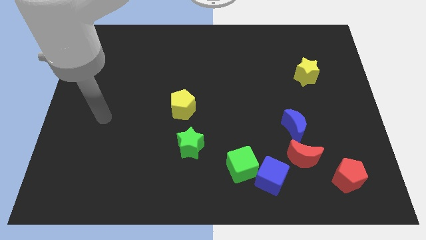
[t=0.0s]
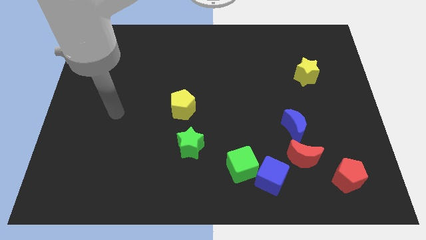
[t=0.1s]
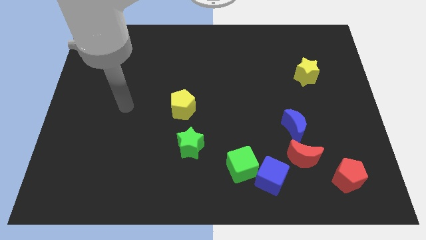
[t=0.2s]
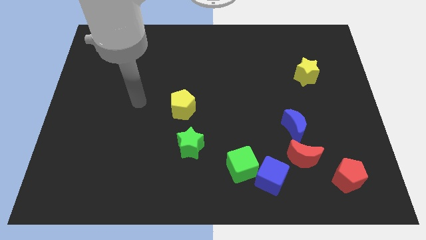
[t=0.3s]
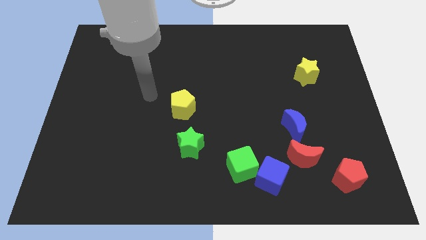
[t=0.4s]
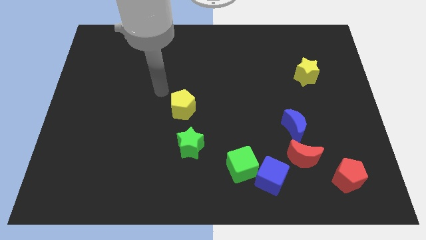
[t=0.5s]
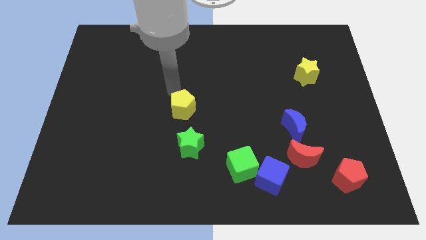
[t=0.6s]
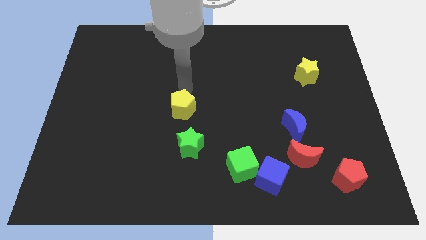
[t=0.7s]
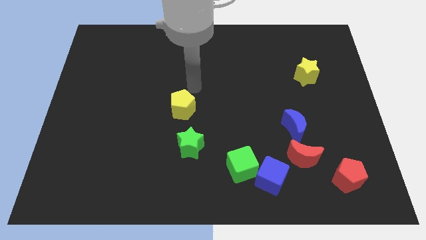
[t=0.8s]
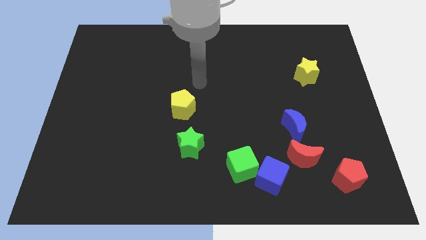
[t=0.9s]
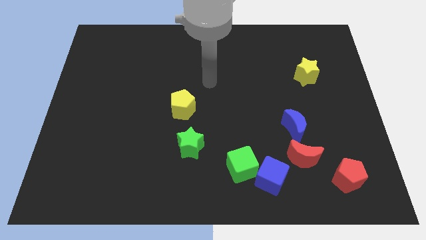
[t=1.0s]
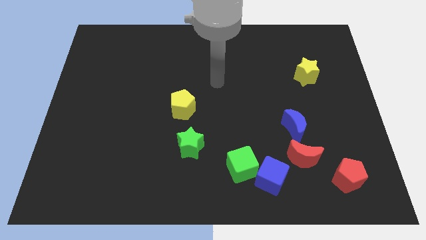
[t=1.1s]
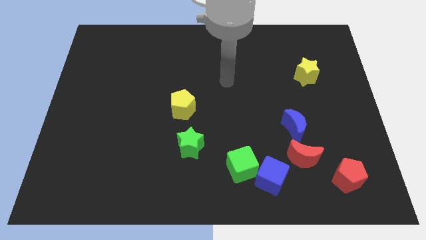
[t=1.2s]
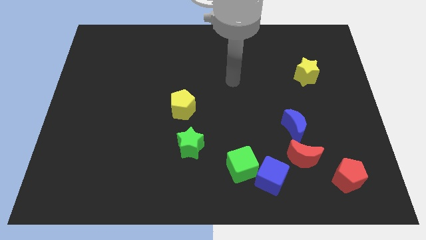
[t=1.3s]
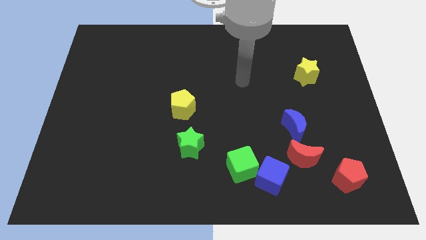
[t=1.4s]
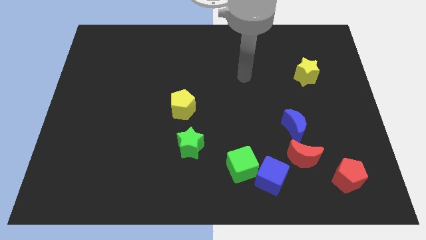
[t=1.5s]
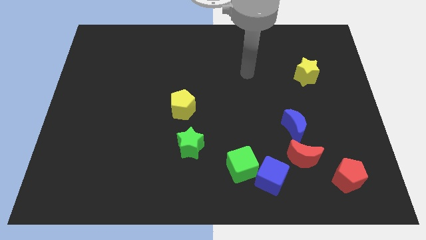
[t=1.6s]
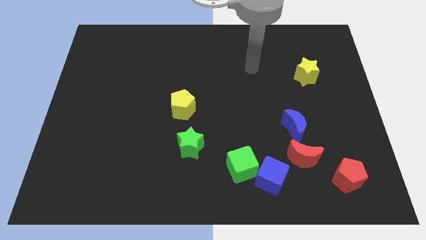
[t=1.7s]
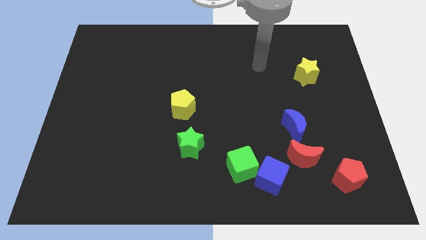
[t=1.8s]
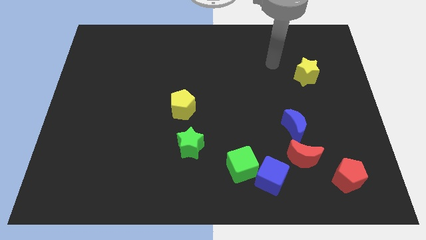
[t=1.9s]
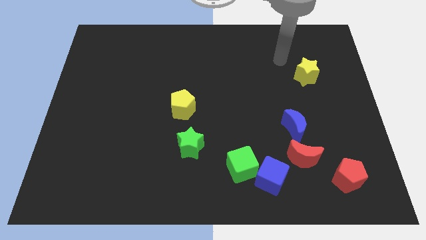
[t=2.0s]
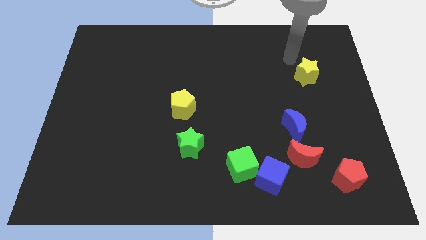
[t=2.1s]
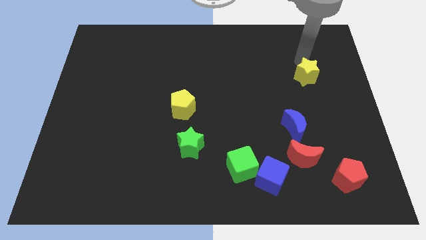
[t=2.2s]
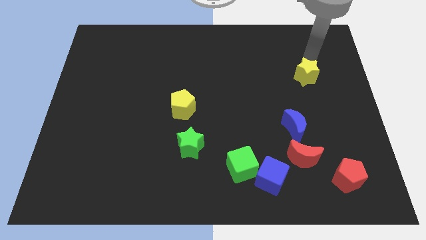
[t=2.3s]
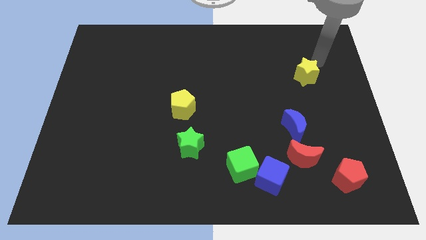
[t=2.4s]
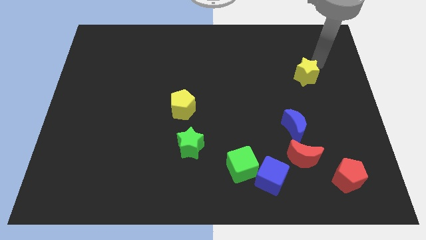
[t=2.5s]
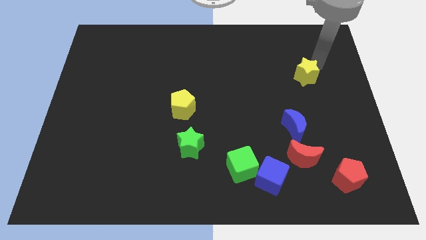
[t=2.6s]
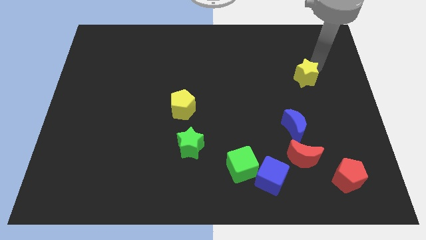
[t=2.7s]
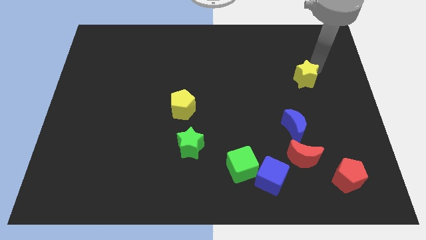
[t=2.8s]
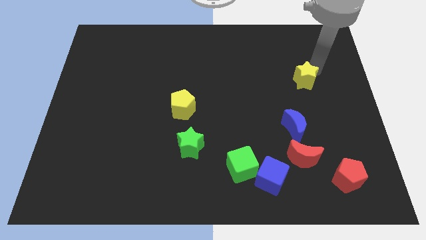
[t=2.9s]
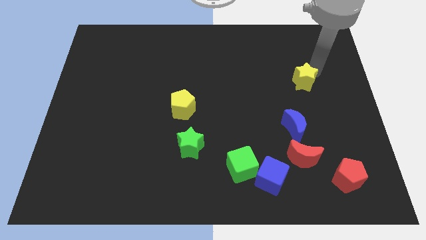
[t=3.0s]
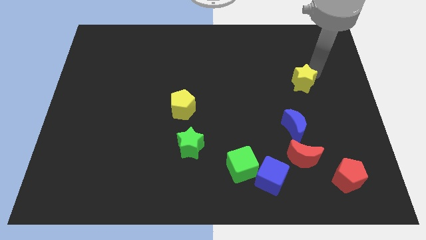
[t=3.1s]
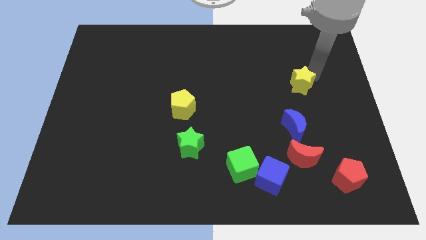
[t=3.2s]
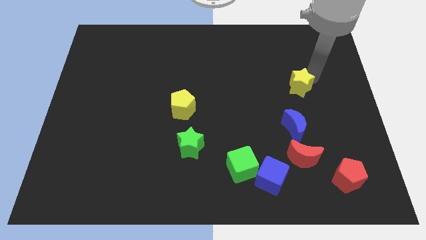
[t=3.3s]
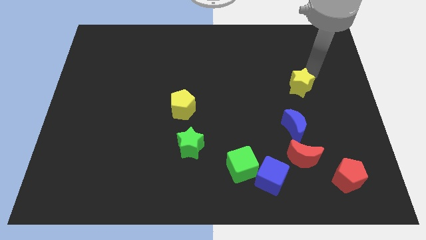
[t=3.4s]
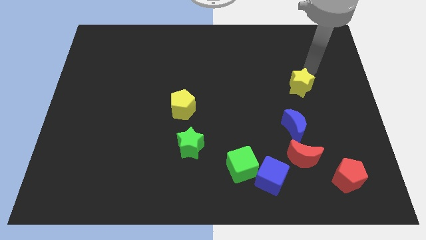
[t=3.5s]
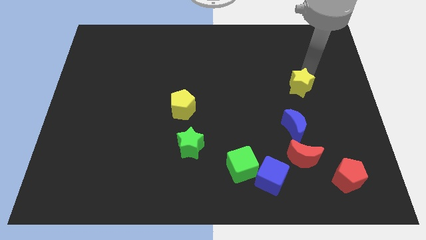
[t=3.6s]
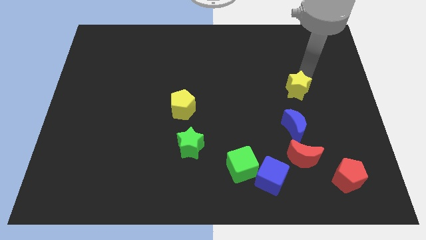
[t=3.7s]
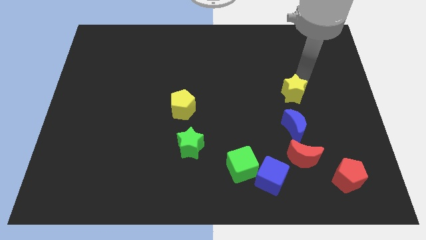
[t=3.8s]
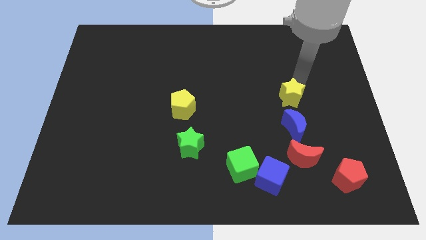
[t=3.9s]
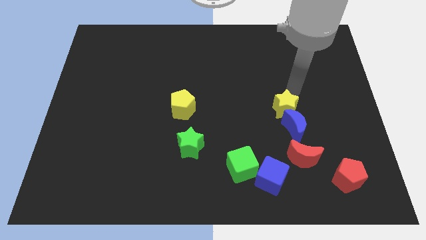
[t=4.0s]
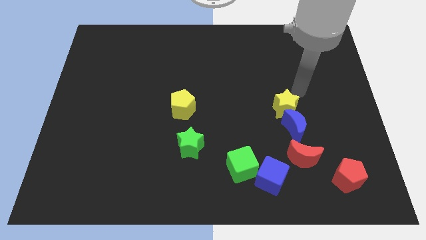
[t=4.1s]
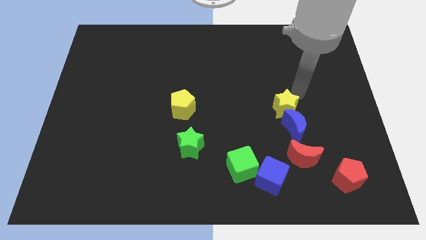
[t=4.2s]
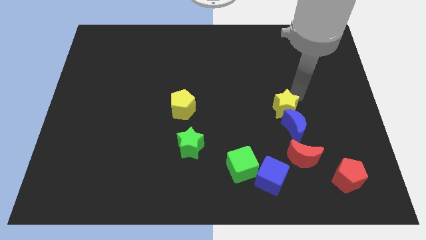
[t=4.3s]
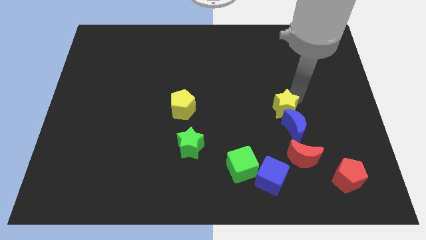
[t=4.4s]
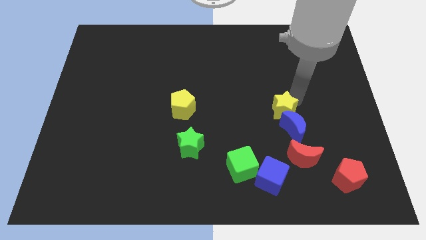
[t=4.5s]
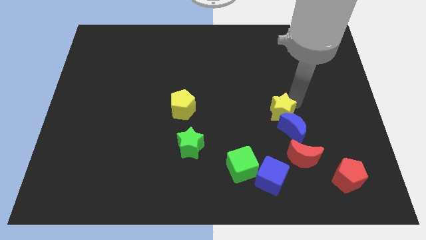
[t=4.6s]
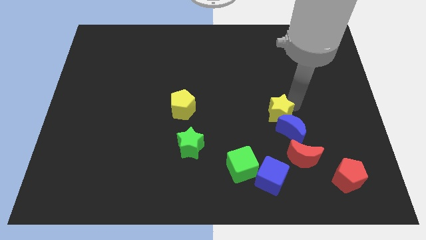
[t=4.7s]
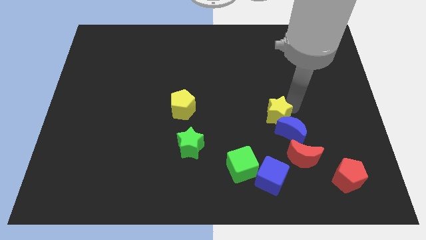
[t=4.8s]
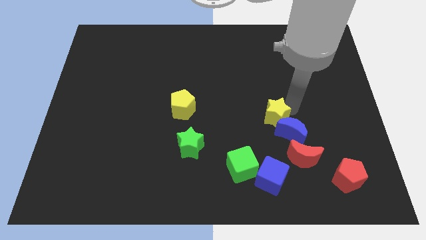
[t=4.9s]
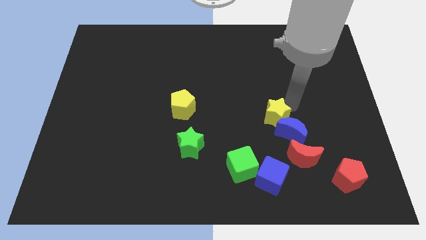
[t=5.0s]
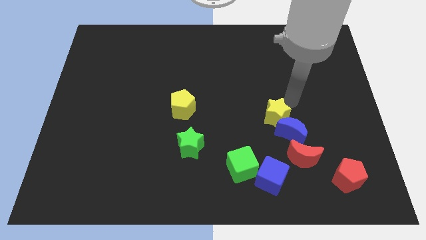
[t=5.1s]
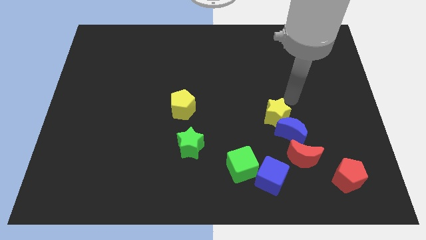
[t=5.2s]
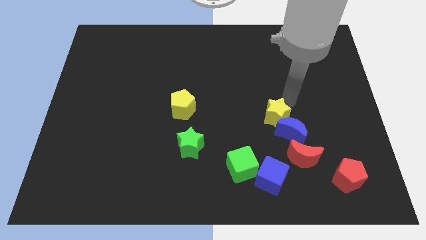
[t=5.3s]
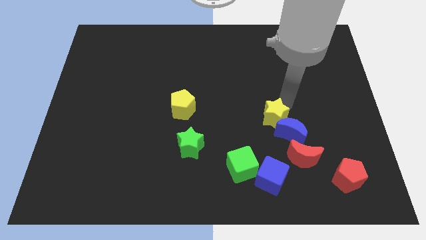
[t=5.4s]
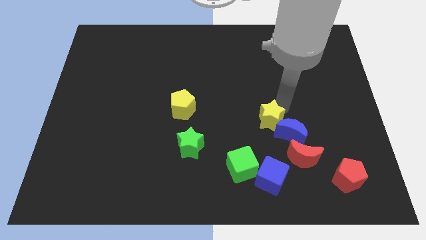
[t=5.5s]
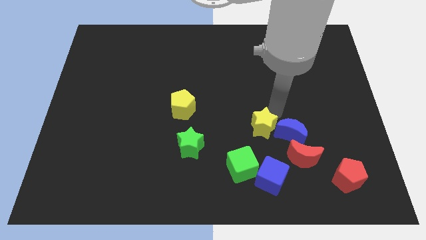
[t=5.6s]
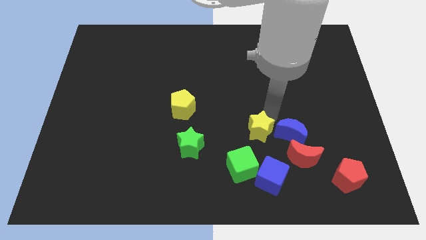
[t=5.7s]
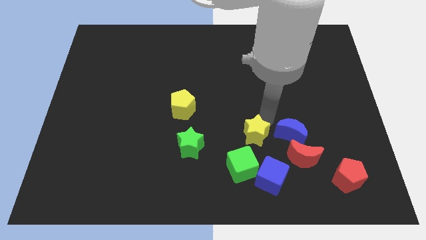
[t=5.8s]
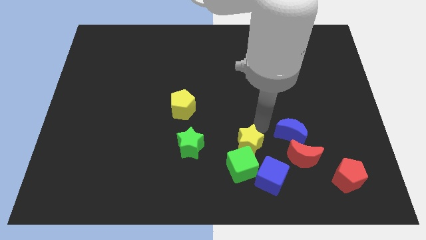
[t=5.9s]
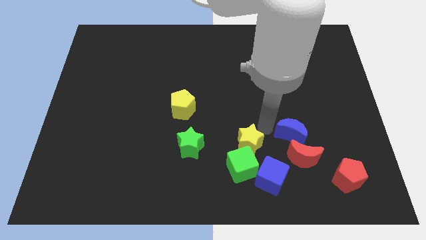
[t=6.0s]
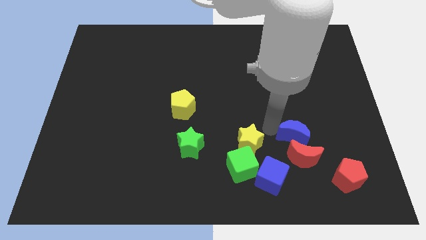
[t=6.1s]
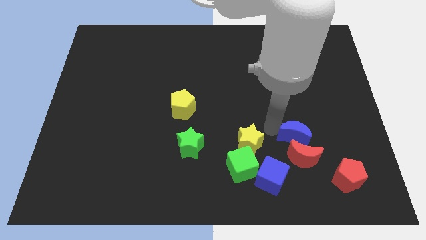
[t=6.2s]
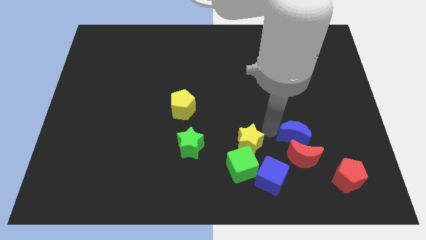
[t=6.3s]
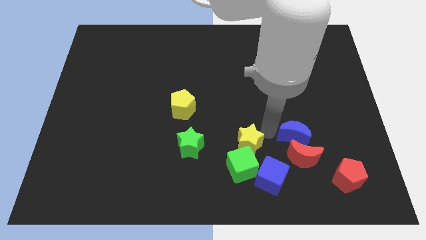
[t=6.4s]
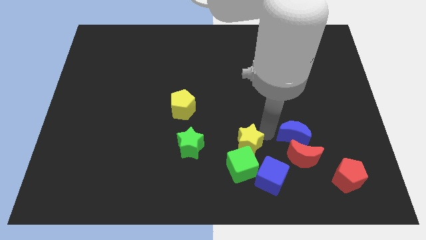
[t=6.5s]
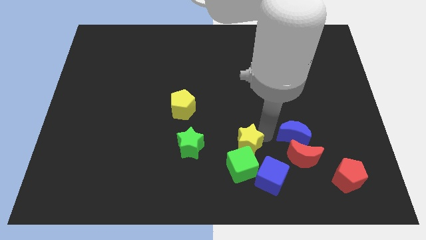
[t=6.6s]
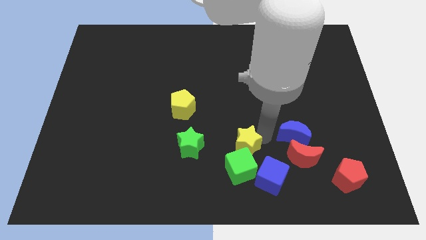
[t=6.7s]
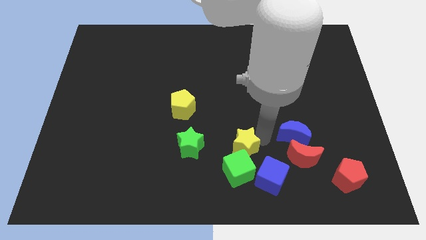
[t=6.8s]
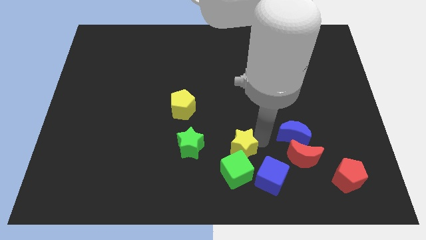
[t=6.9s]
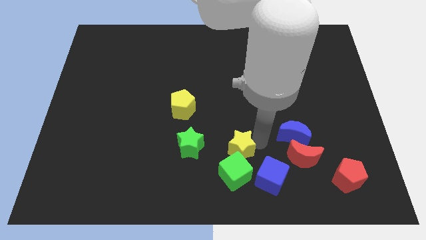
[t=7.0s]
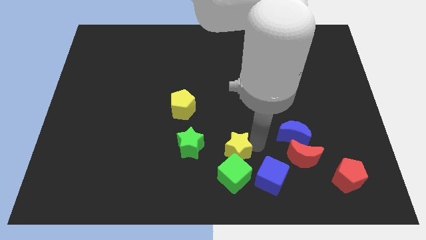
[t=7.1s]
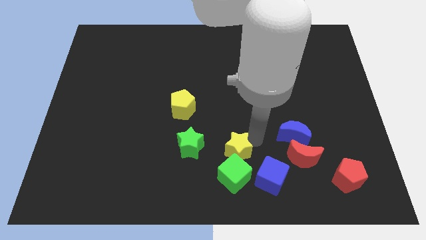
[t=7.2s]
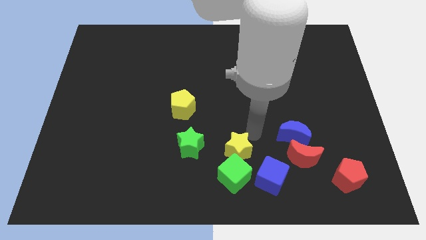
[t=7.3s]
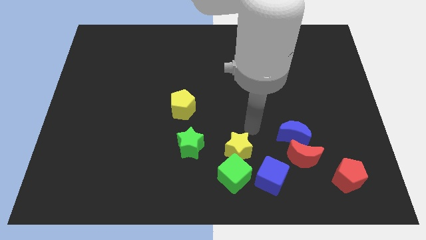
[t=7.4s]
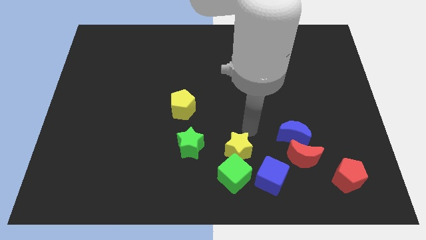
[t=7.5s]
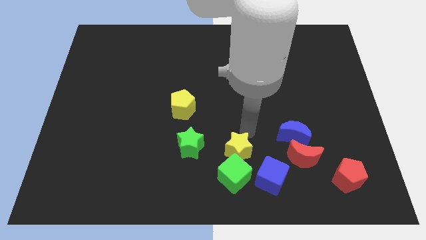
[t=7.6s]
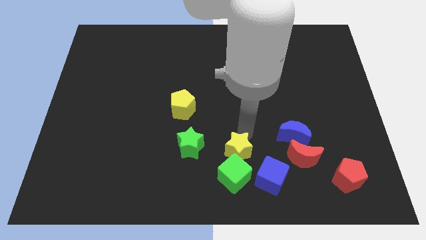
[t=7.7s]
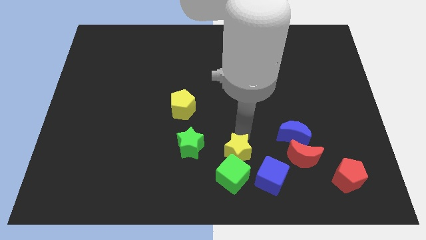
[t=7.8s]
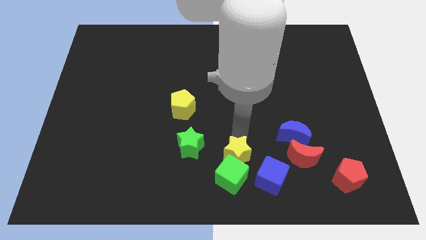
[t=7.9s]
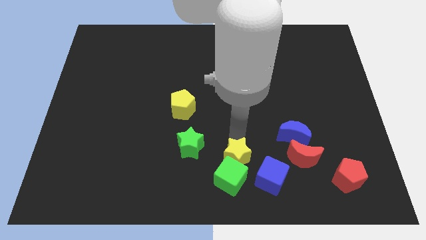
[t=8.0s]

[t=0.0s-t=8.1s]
move the yellow star to the bottom
